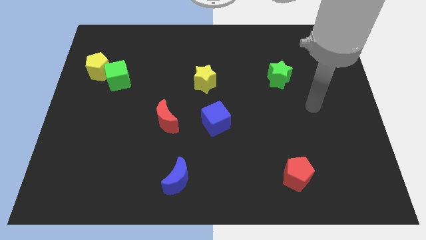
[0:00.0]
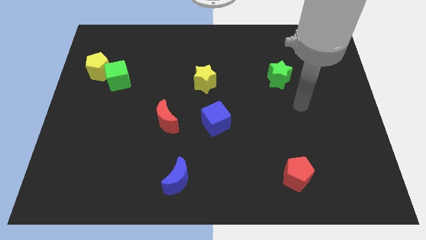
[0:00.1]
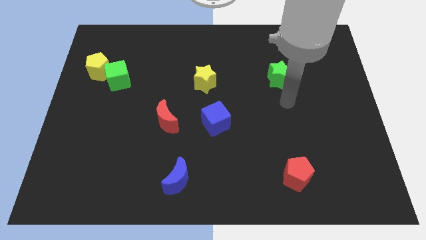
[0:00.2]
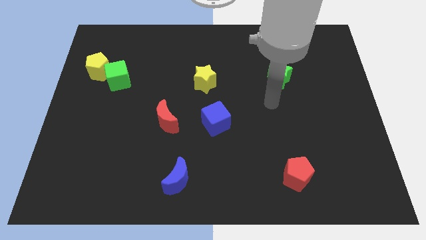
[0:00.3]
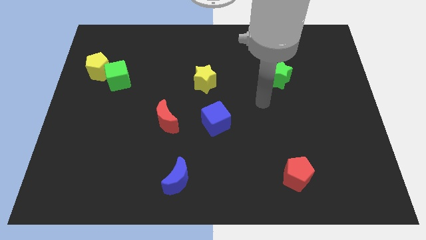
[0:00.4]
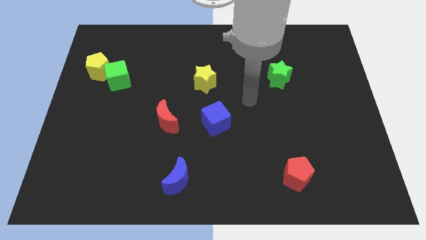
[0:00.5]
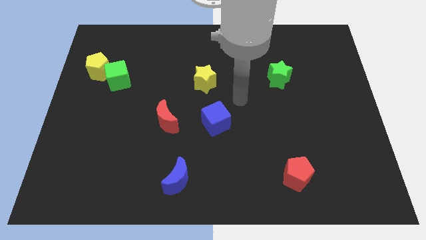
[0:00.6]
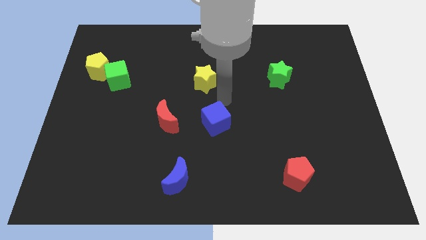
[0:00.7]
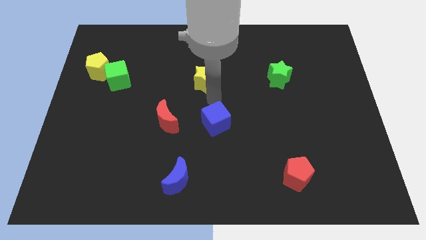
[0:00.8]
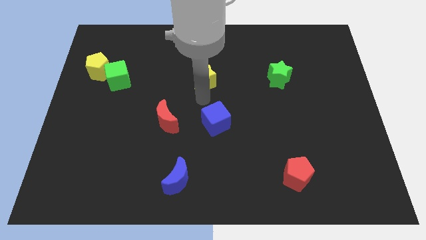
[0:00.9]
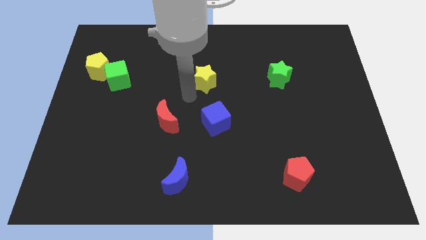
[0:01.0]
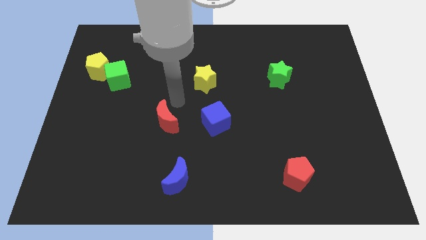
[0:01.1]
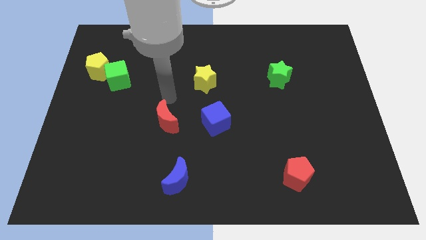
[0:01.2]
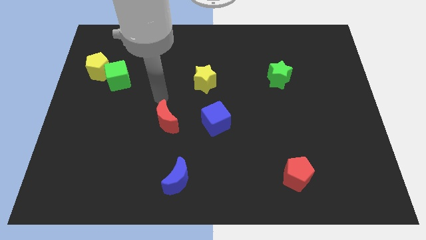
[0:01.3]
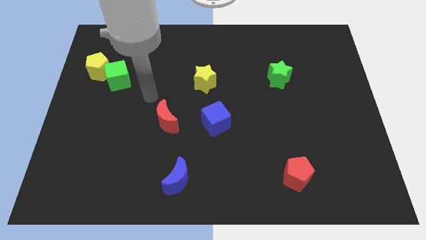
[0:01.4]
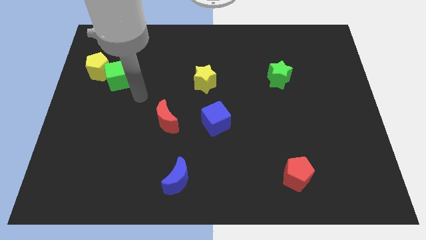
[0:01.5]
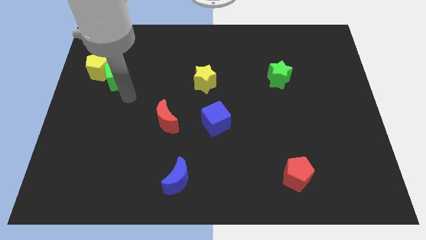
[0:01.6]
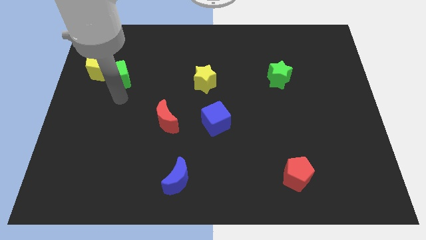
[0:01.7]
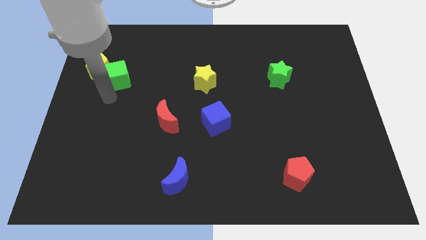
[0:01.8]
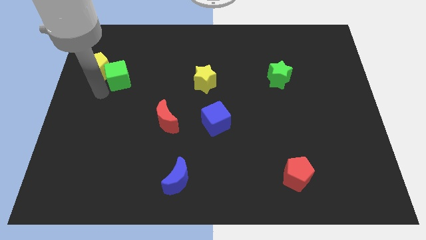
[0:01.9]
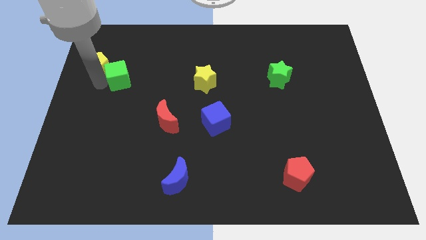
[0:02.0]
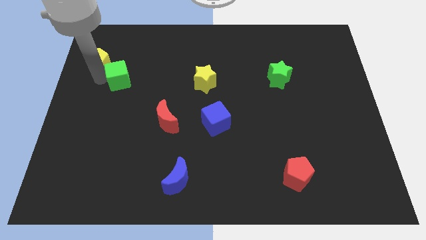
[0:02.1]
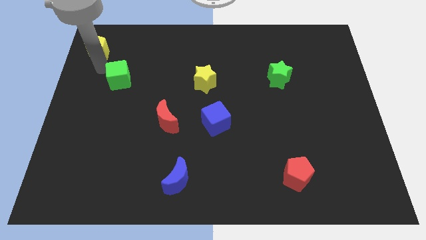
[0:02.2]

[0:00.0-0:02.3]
separate the green cube from the yellow pentagon

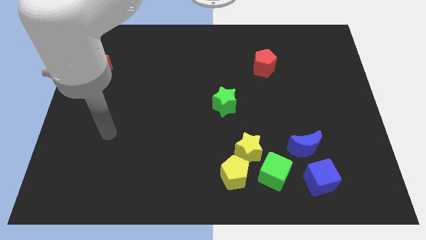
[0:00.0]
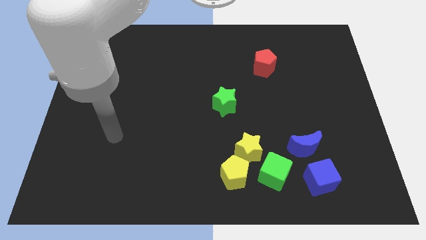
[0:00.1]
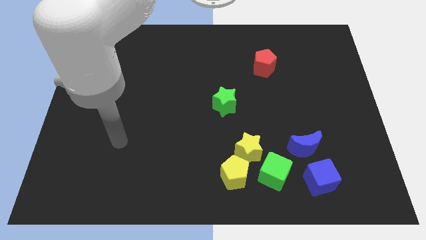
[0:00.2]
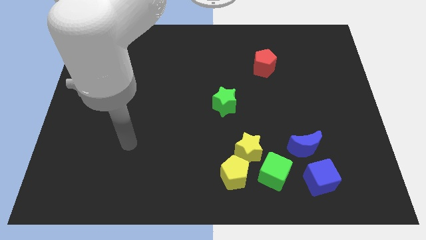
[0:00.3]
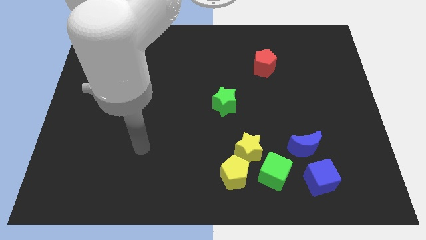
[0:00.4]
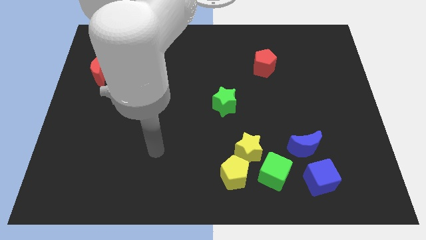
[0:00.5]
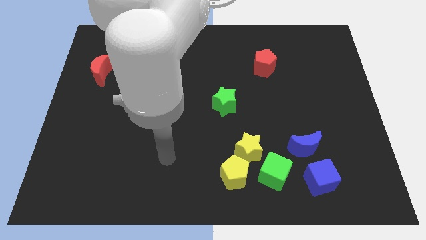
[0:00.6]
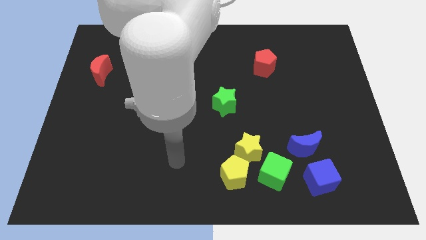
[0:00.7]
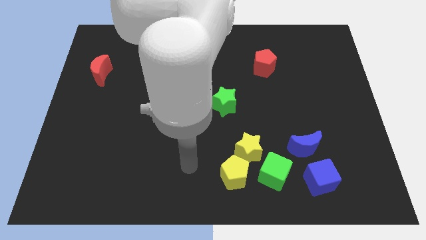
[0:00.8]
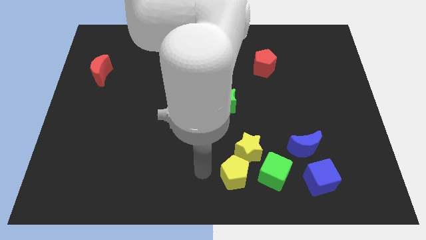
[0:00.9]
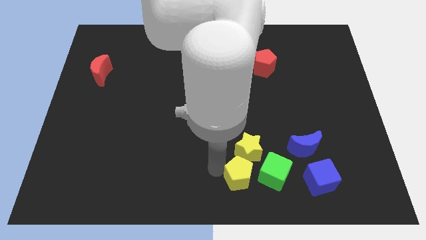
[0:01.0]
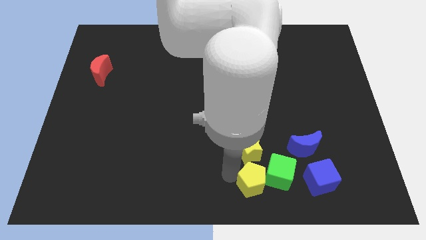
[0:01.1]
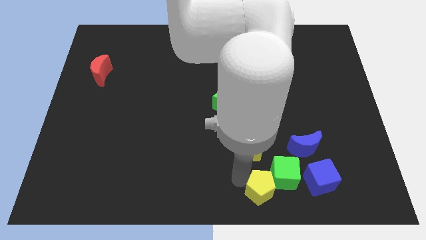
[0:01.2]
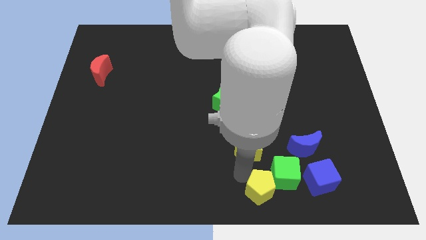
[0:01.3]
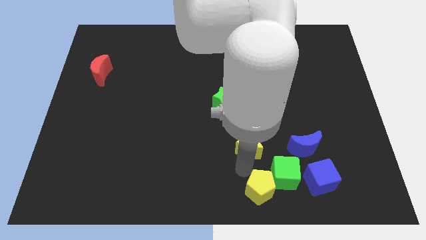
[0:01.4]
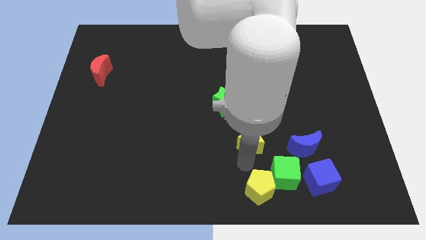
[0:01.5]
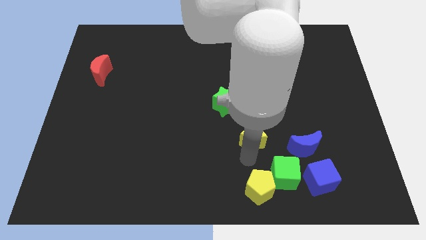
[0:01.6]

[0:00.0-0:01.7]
move the yellow star away from the yellow pentagon and green cube

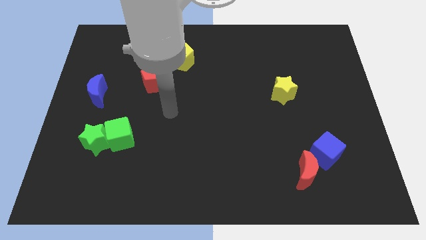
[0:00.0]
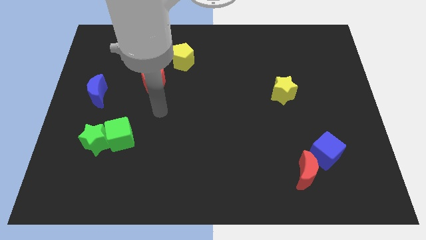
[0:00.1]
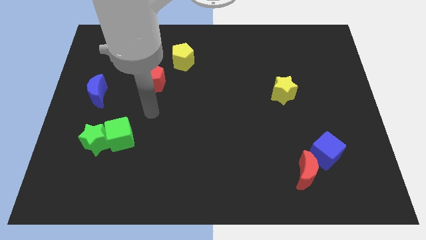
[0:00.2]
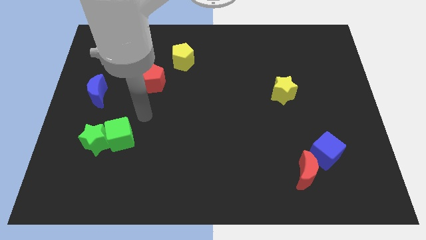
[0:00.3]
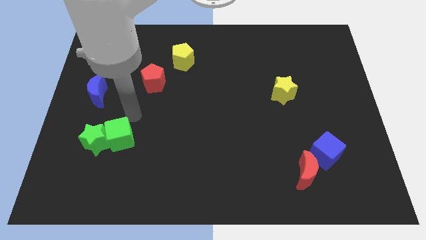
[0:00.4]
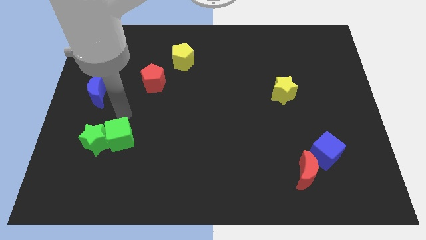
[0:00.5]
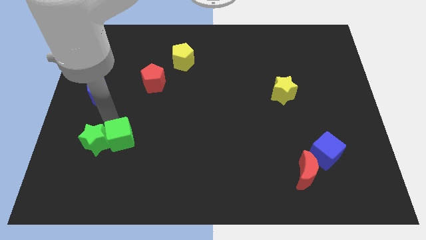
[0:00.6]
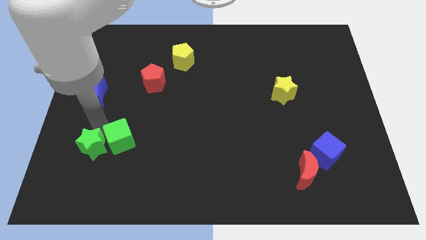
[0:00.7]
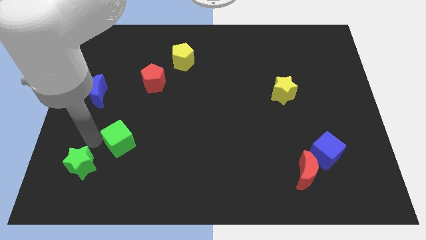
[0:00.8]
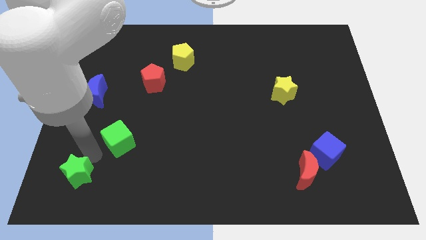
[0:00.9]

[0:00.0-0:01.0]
move the green cube away from the green star

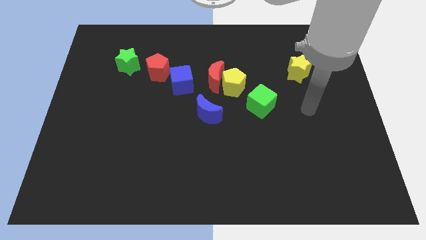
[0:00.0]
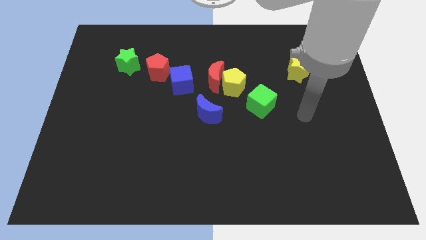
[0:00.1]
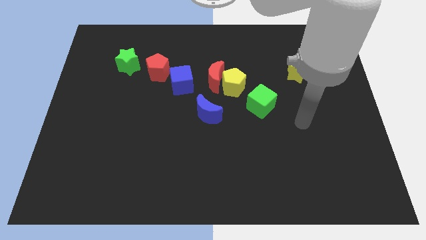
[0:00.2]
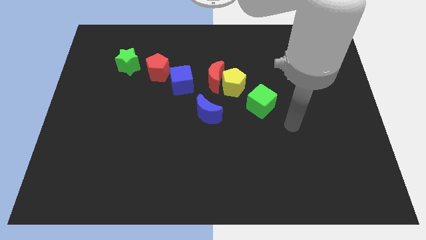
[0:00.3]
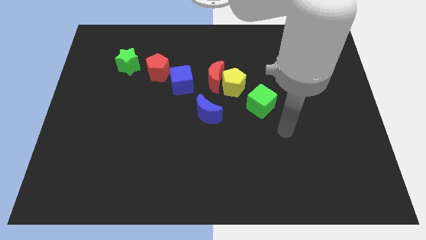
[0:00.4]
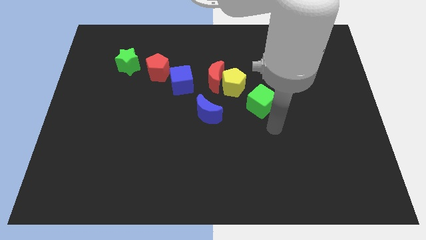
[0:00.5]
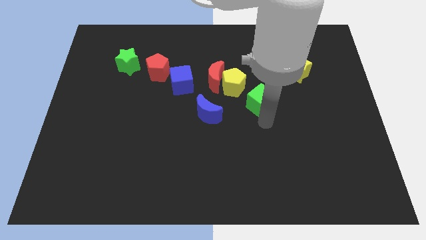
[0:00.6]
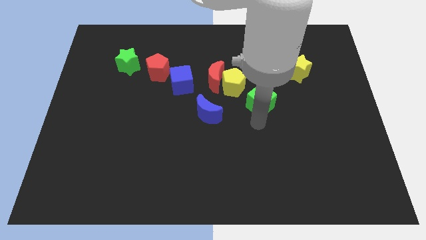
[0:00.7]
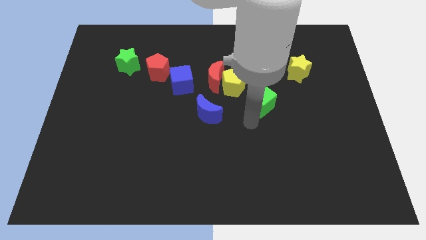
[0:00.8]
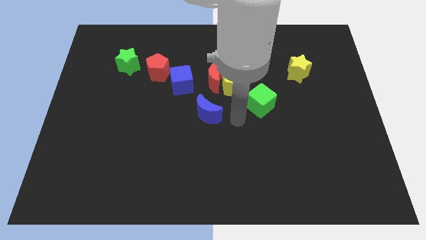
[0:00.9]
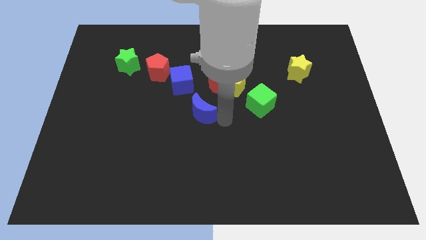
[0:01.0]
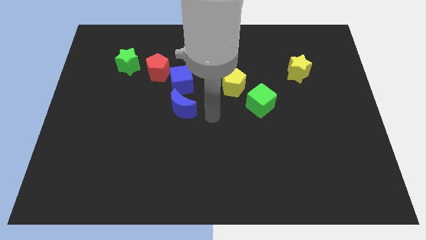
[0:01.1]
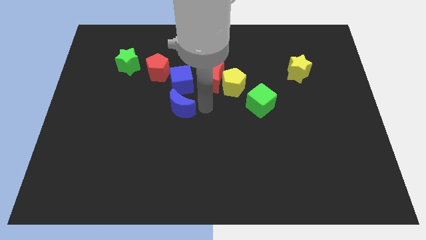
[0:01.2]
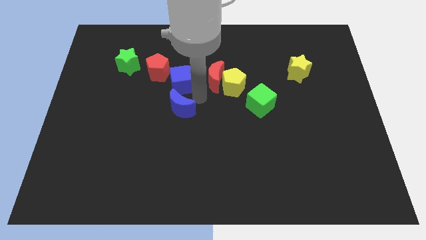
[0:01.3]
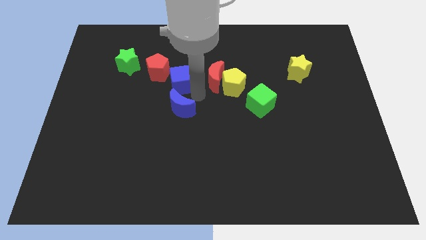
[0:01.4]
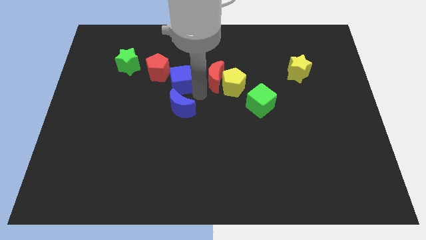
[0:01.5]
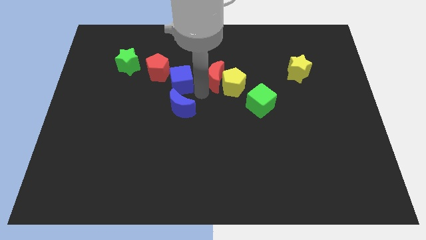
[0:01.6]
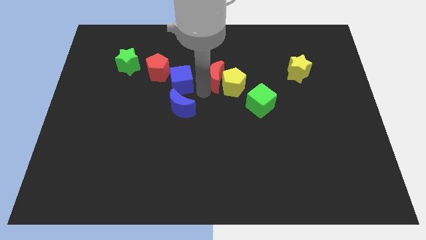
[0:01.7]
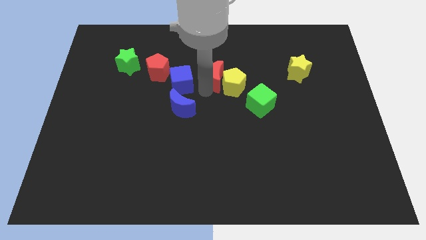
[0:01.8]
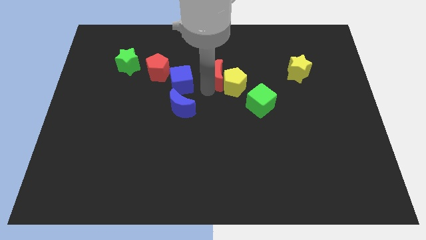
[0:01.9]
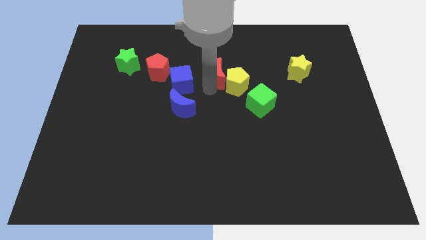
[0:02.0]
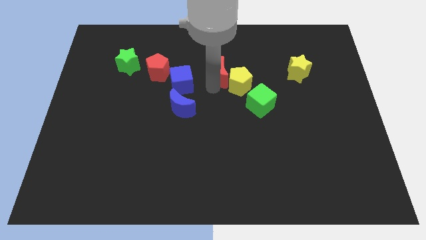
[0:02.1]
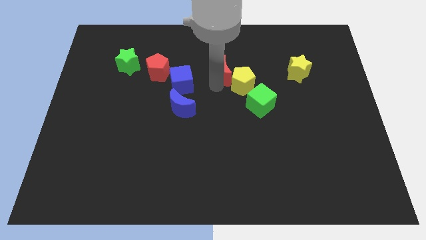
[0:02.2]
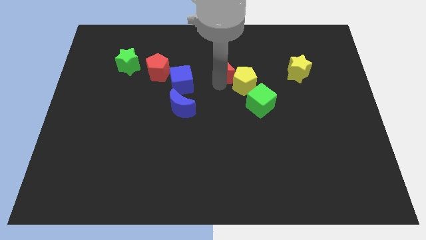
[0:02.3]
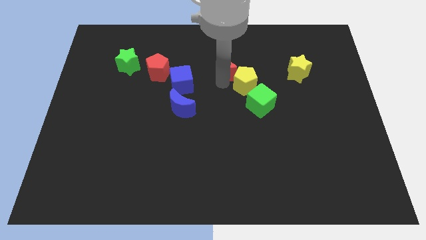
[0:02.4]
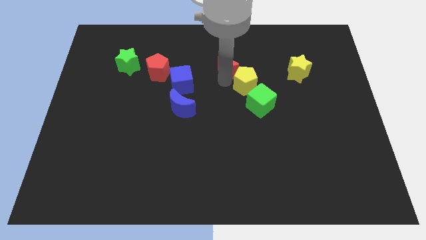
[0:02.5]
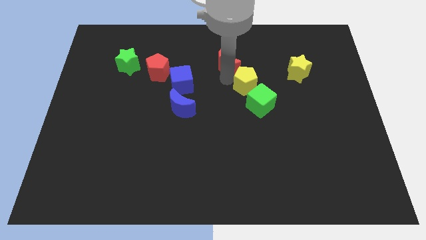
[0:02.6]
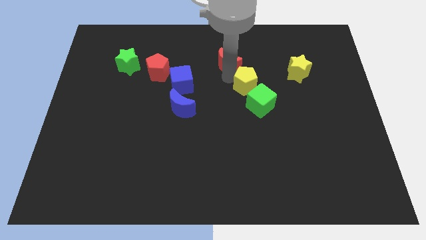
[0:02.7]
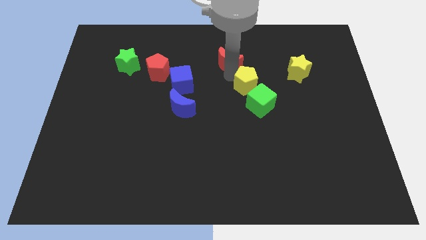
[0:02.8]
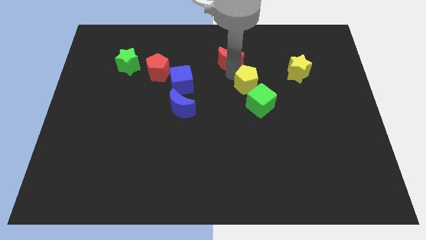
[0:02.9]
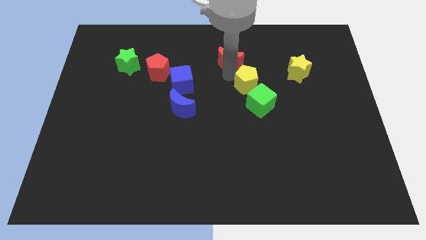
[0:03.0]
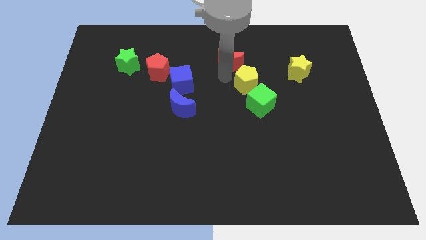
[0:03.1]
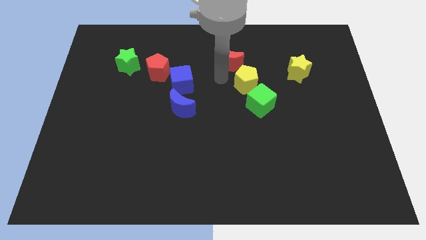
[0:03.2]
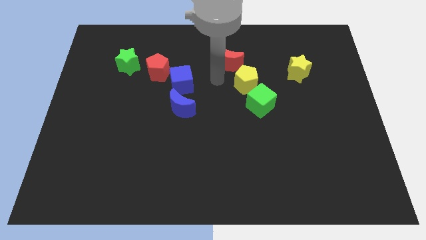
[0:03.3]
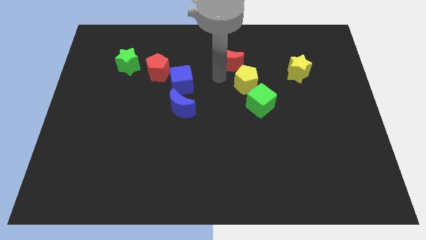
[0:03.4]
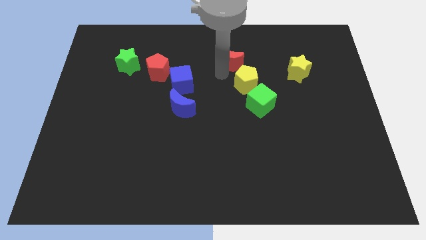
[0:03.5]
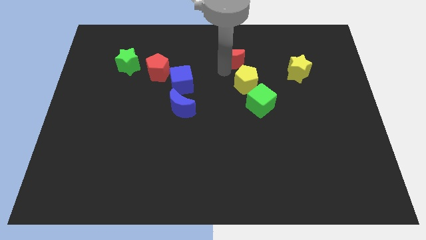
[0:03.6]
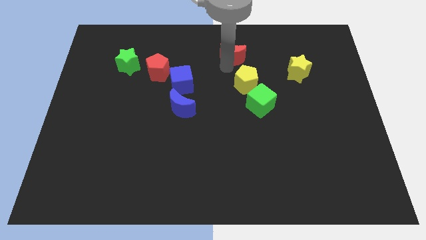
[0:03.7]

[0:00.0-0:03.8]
move the red moon away from the yellow pentagon and blue cube

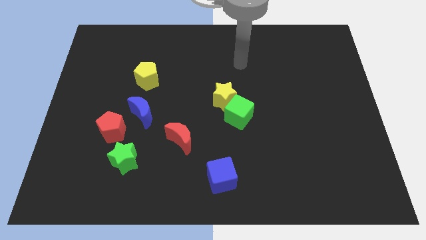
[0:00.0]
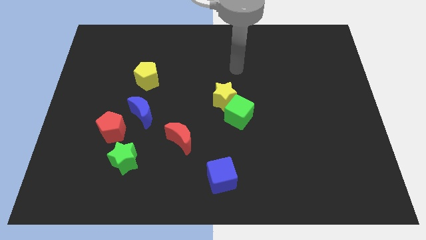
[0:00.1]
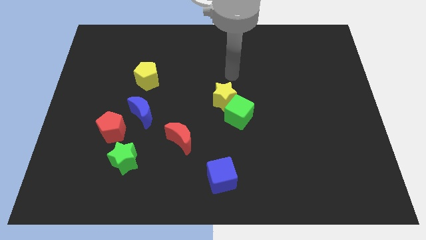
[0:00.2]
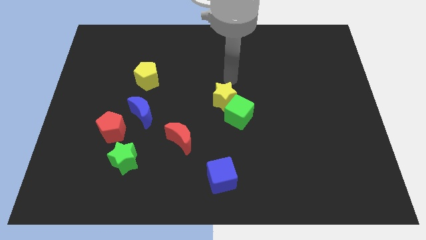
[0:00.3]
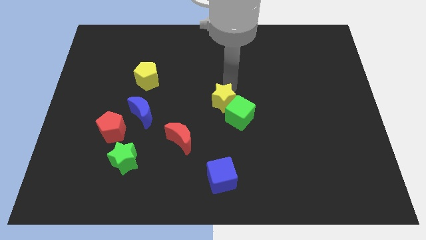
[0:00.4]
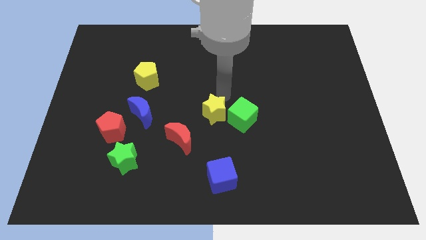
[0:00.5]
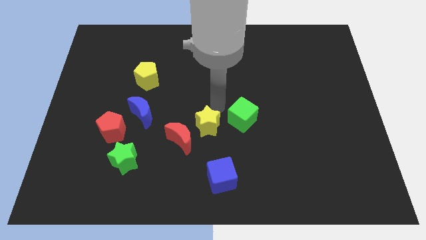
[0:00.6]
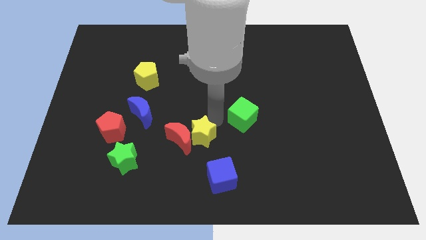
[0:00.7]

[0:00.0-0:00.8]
pull the green cube apart from the yellow star
